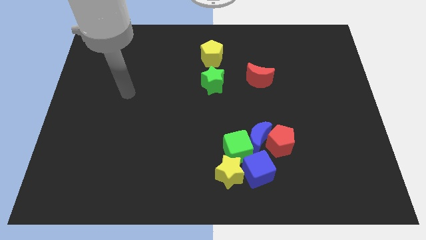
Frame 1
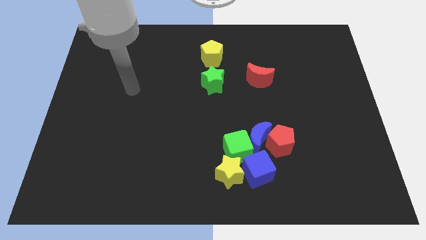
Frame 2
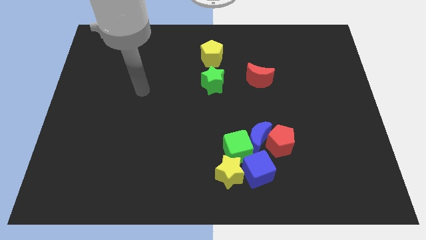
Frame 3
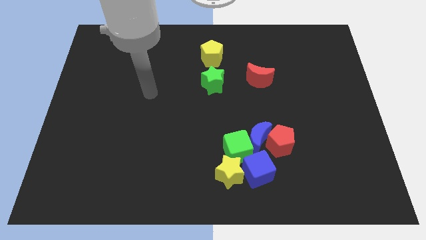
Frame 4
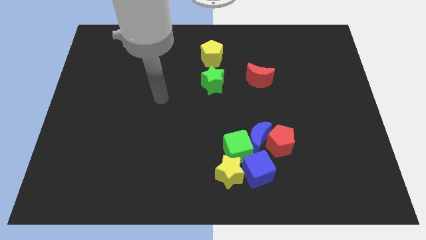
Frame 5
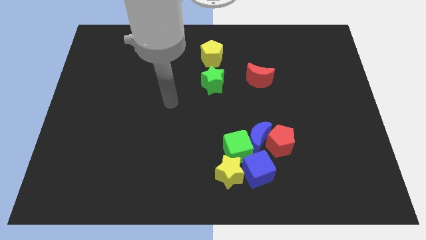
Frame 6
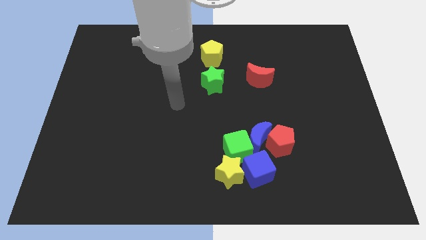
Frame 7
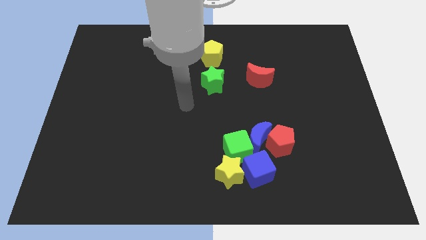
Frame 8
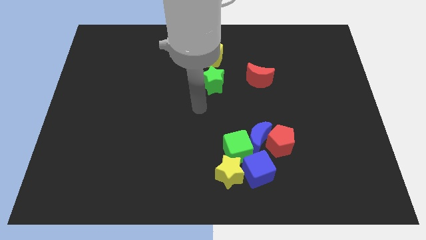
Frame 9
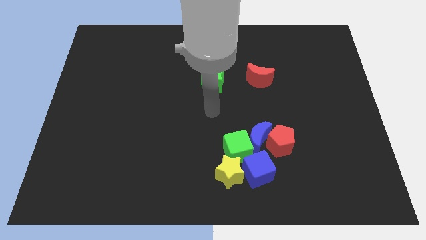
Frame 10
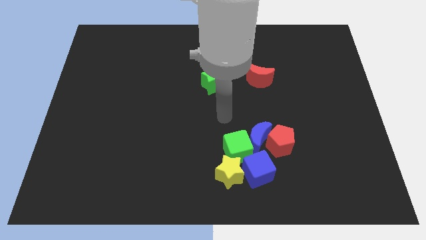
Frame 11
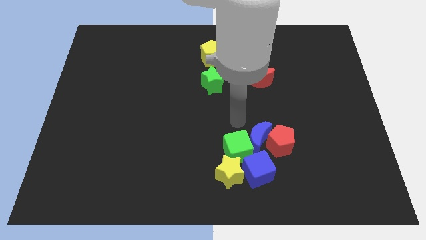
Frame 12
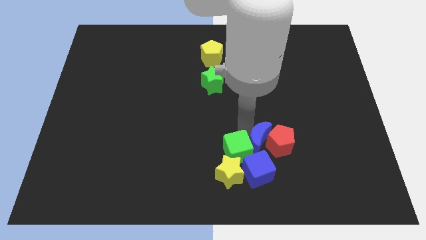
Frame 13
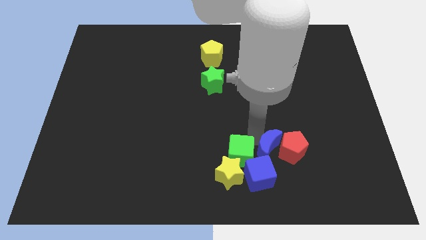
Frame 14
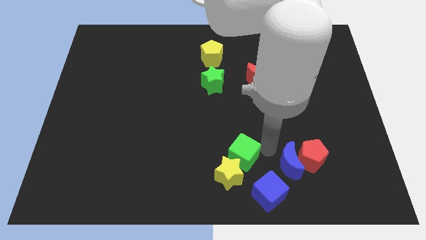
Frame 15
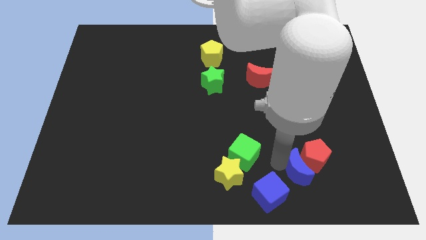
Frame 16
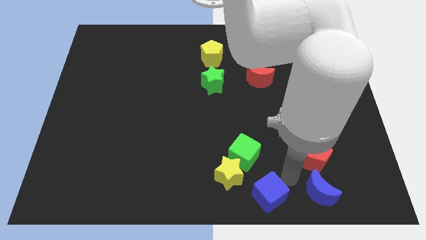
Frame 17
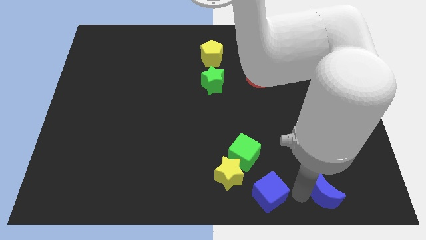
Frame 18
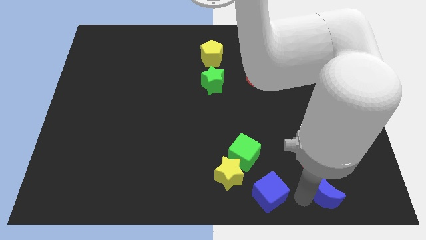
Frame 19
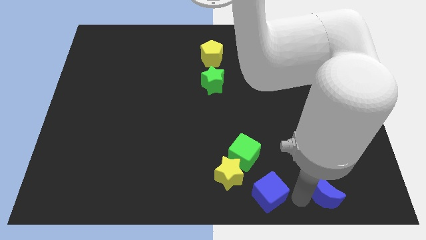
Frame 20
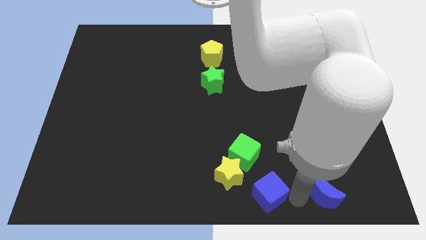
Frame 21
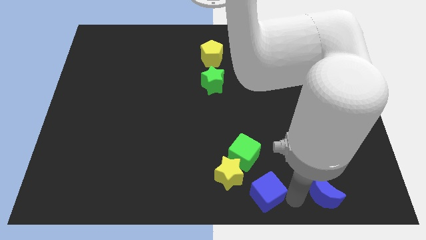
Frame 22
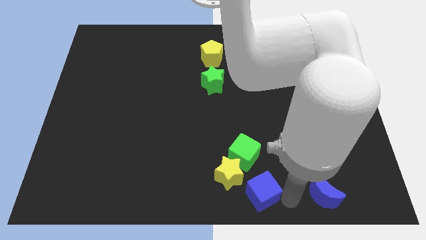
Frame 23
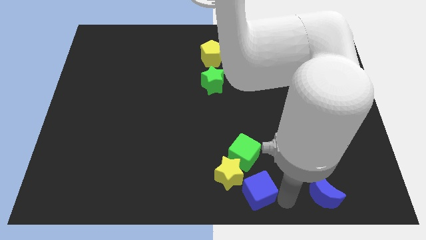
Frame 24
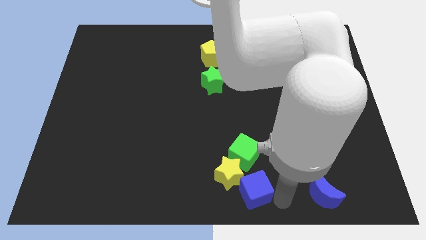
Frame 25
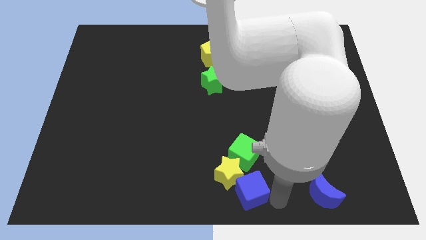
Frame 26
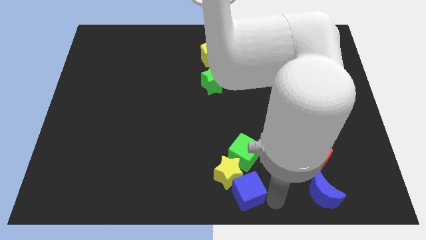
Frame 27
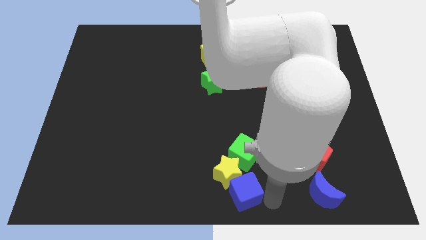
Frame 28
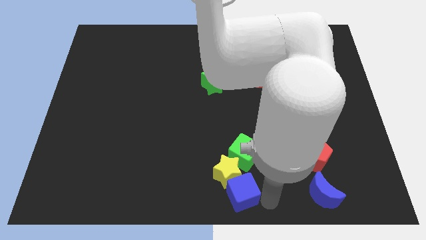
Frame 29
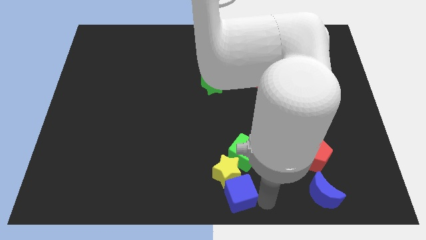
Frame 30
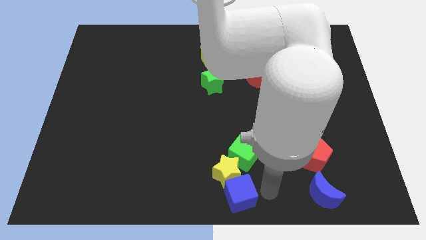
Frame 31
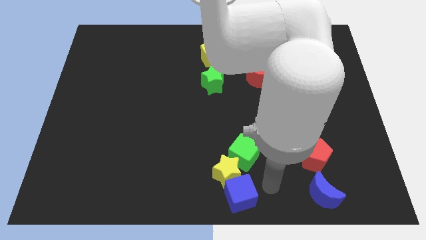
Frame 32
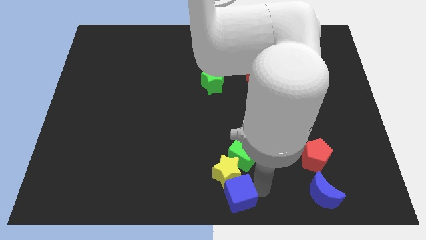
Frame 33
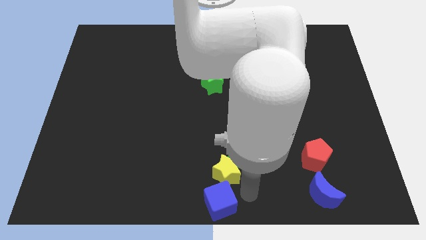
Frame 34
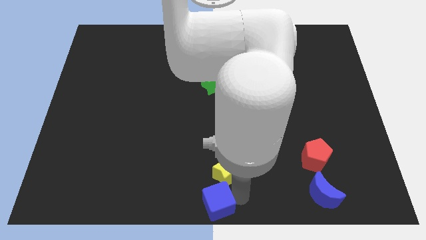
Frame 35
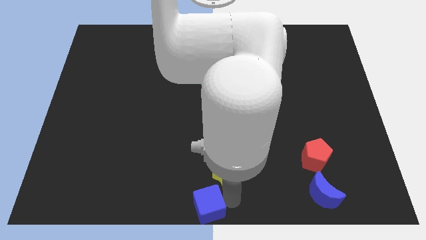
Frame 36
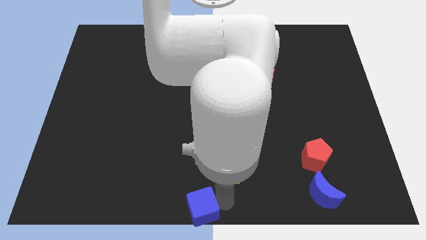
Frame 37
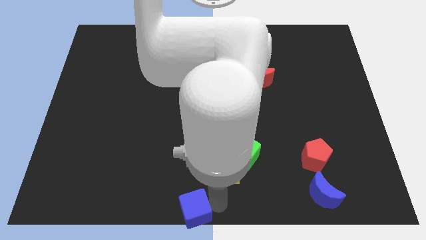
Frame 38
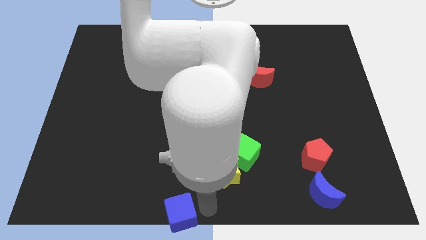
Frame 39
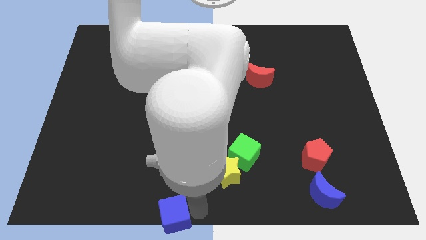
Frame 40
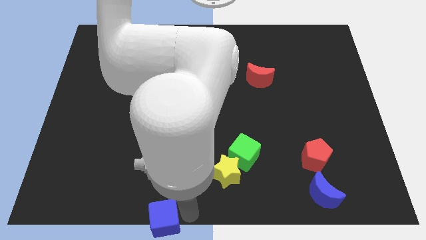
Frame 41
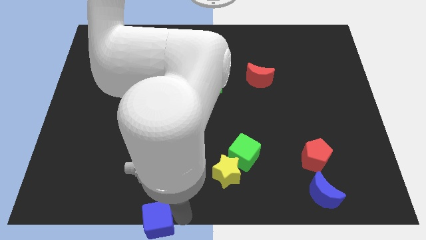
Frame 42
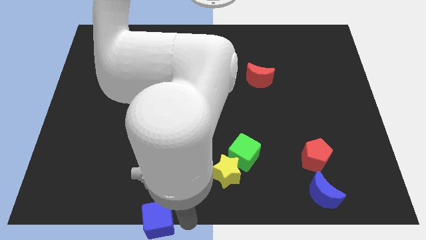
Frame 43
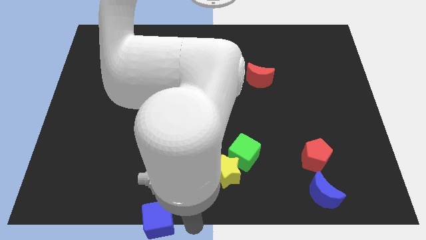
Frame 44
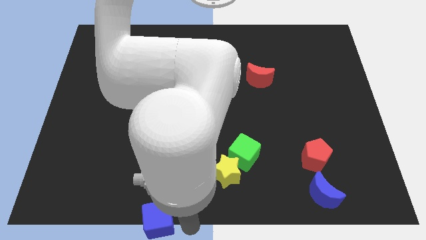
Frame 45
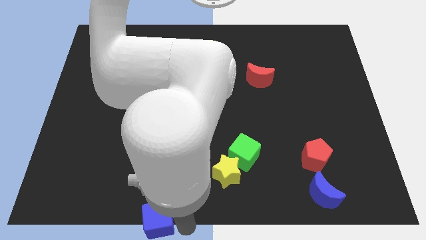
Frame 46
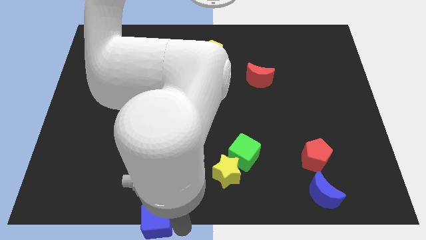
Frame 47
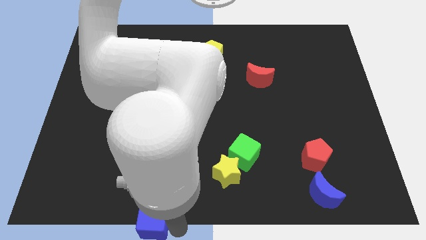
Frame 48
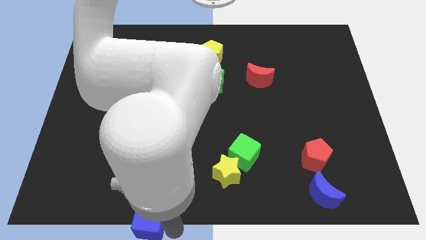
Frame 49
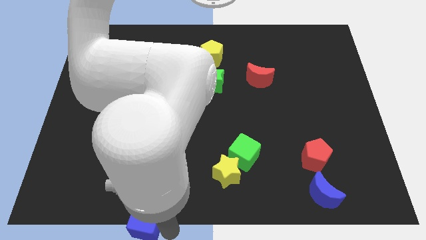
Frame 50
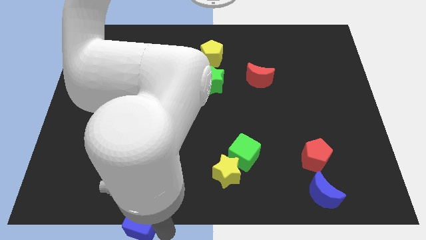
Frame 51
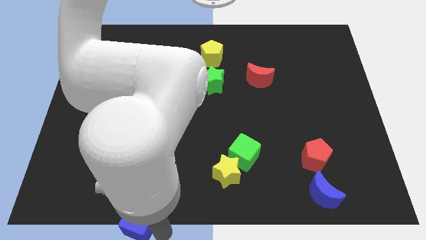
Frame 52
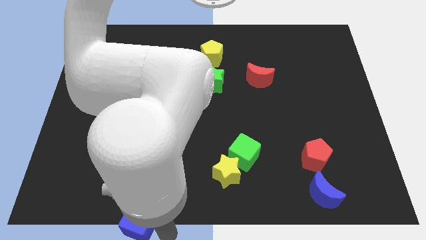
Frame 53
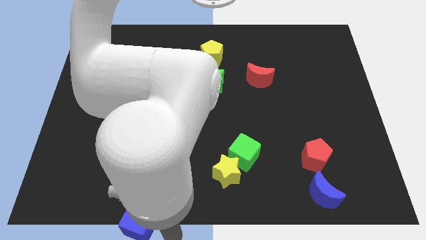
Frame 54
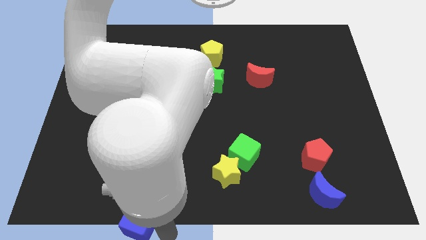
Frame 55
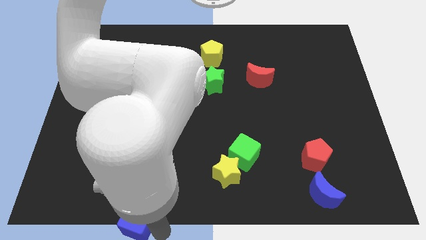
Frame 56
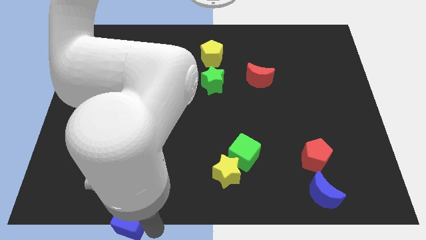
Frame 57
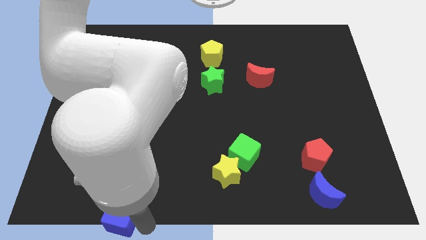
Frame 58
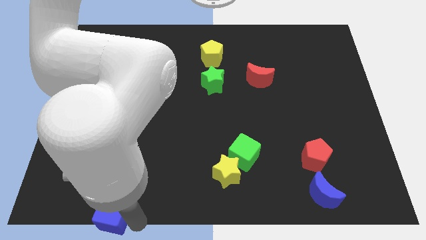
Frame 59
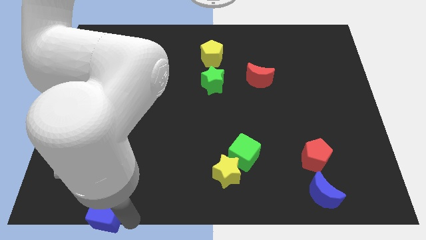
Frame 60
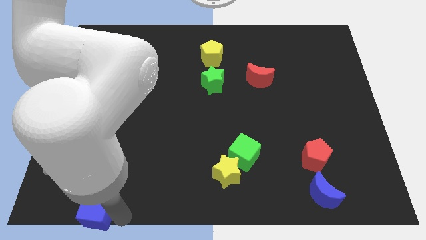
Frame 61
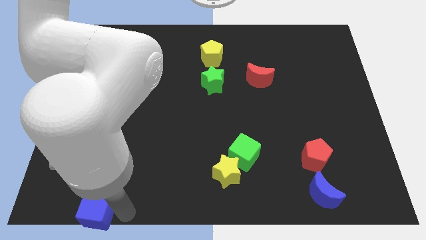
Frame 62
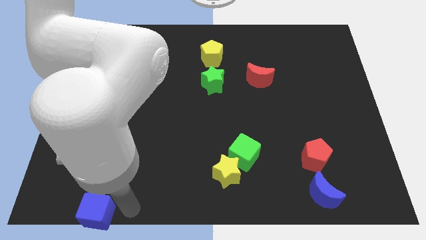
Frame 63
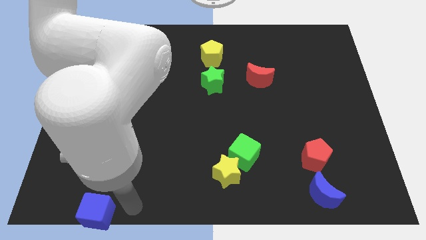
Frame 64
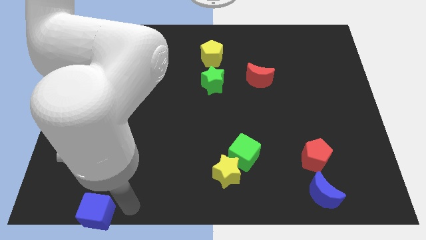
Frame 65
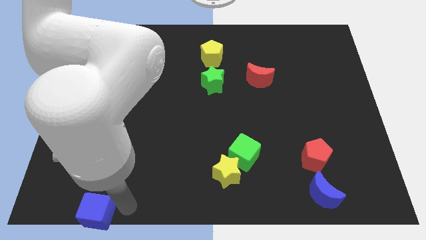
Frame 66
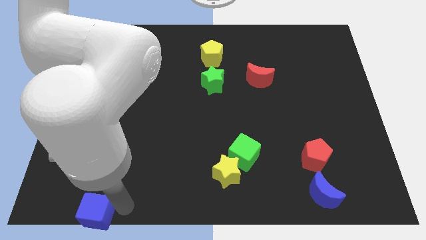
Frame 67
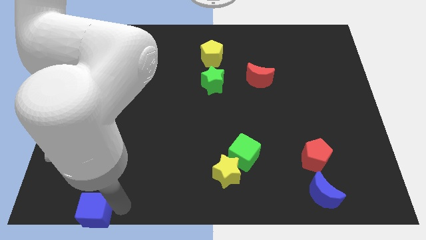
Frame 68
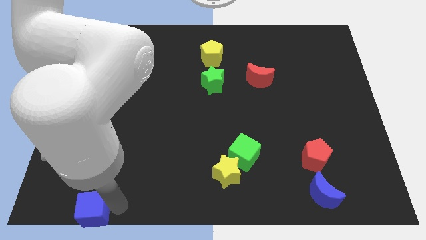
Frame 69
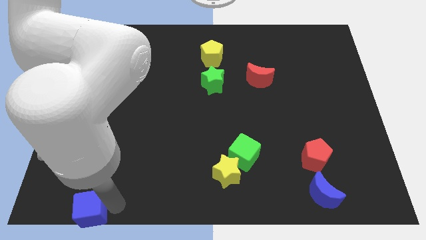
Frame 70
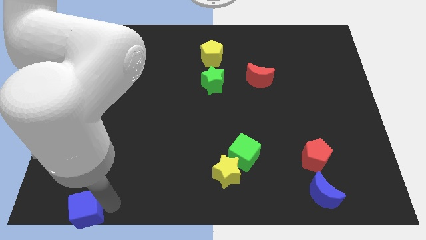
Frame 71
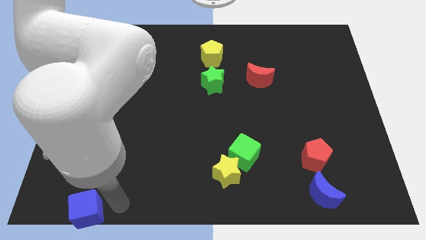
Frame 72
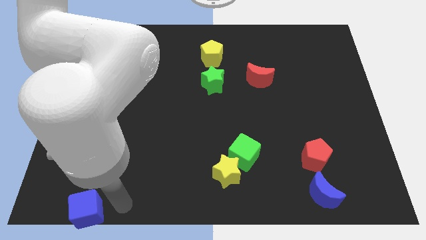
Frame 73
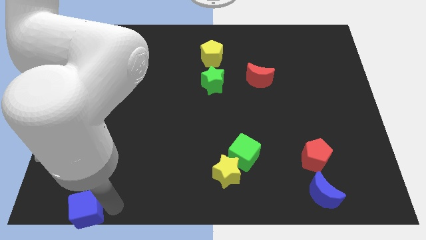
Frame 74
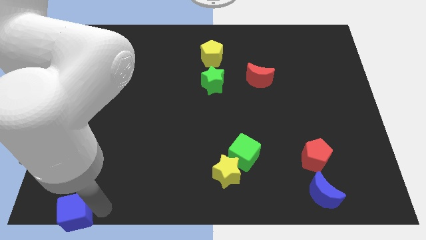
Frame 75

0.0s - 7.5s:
move the blue cube to the bottom left
